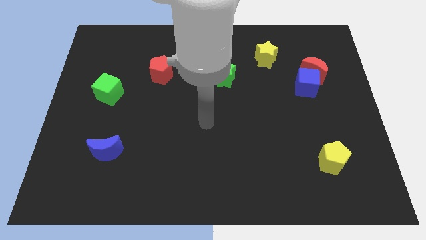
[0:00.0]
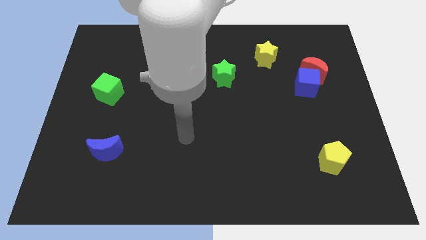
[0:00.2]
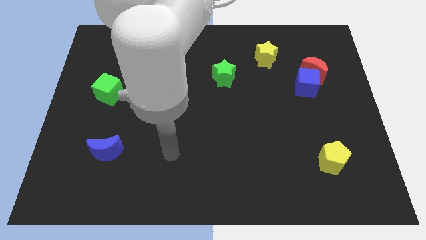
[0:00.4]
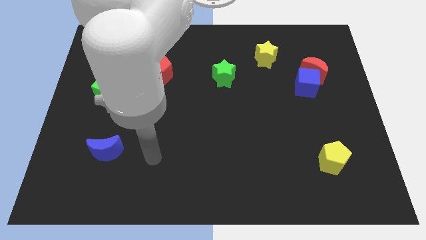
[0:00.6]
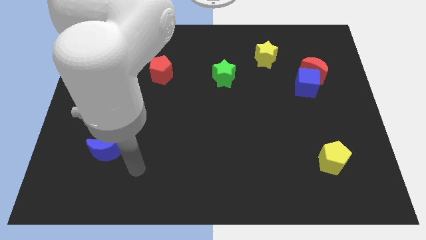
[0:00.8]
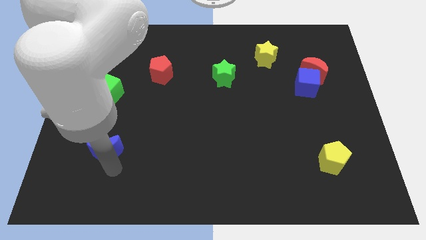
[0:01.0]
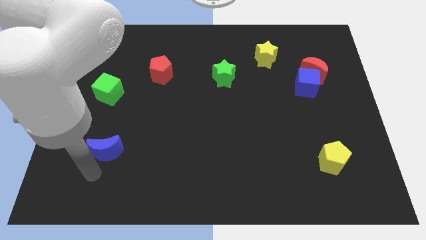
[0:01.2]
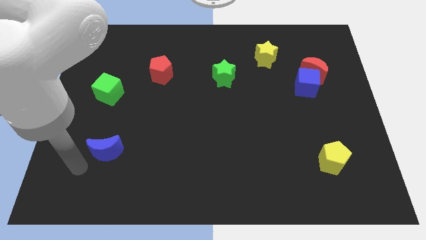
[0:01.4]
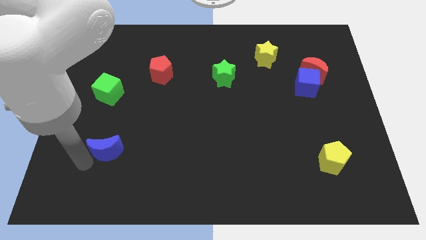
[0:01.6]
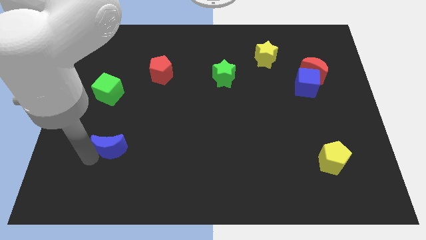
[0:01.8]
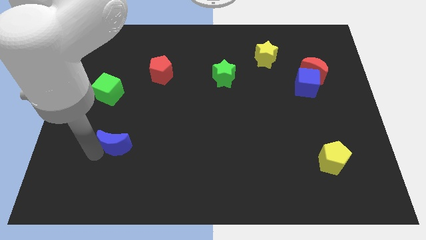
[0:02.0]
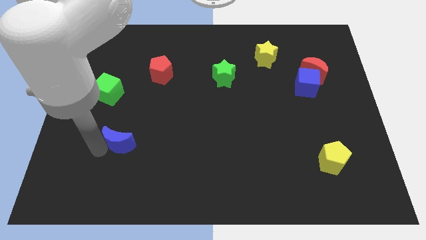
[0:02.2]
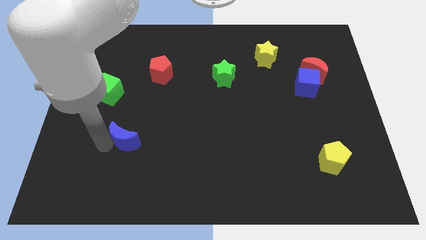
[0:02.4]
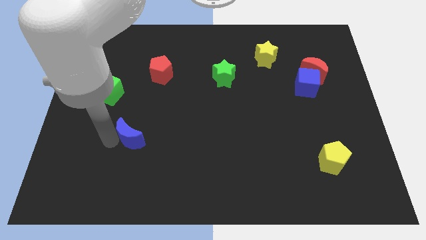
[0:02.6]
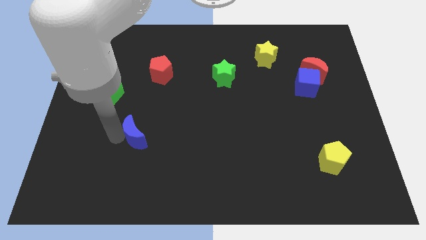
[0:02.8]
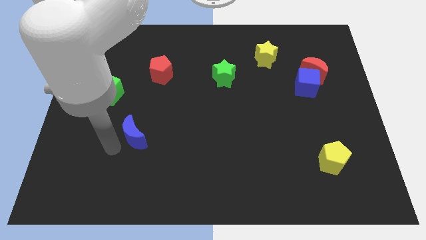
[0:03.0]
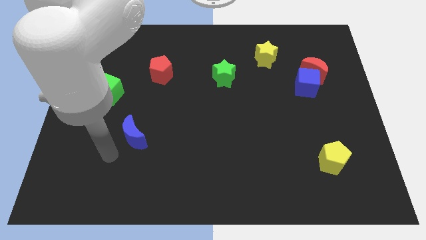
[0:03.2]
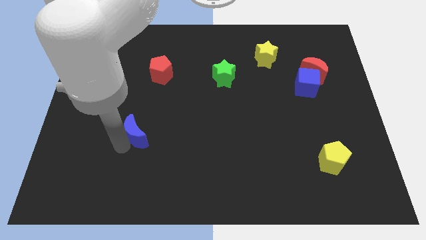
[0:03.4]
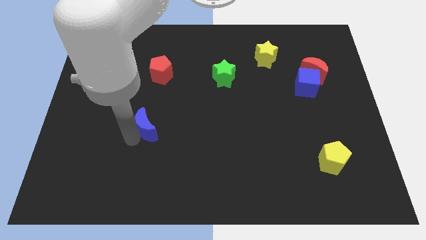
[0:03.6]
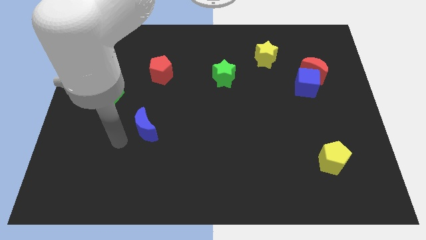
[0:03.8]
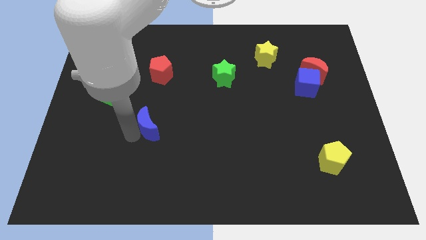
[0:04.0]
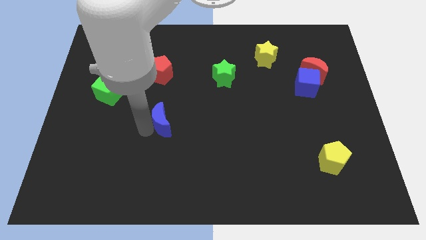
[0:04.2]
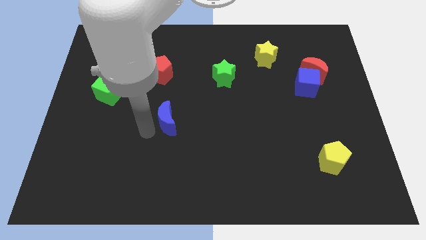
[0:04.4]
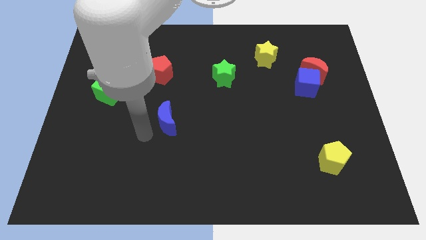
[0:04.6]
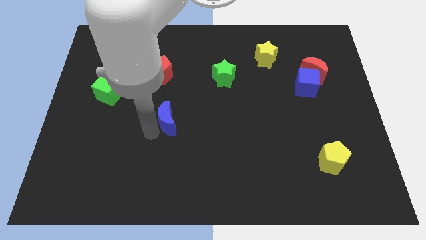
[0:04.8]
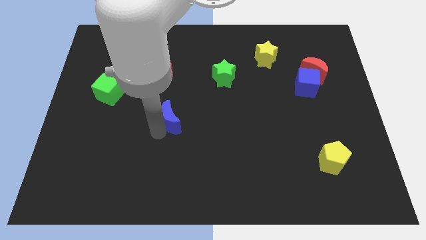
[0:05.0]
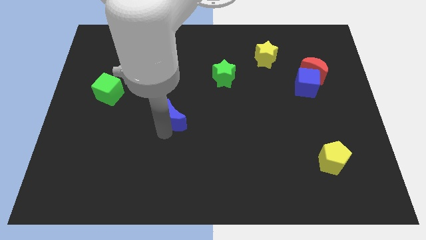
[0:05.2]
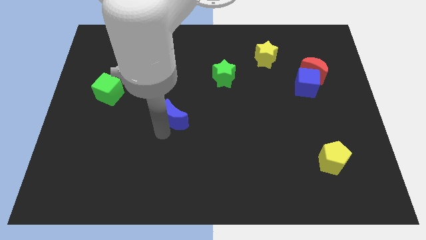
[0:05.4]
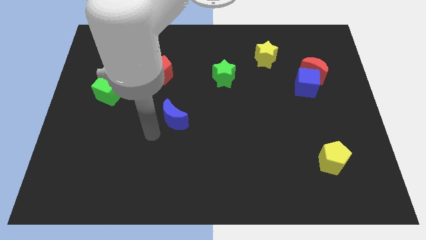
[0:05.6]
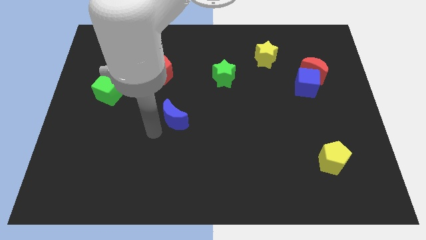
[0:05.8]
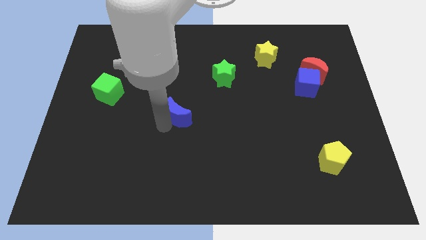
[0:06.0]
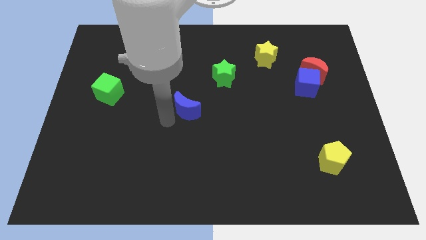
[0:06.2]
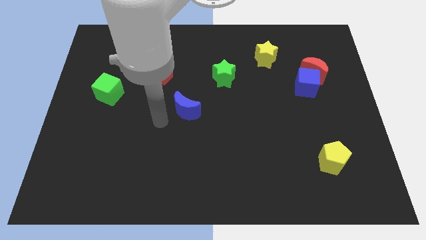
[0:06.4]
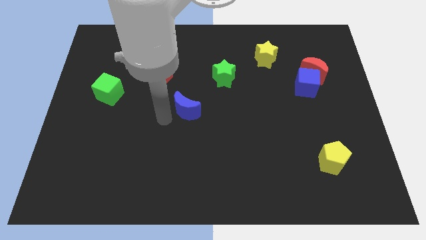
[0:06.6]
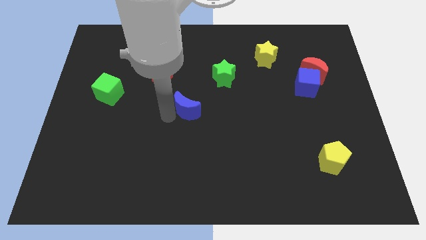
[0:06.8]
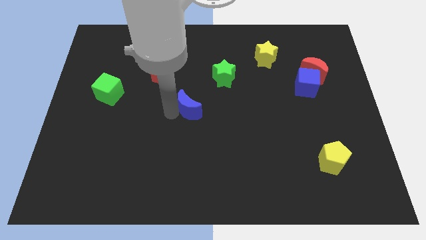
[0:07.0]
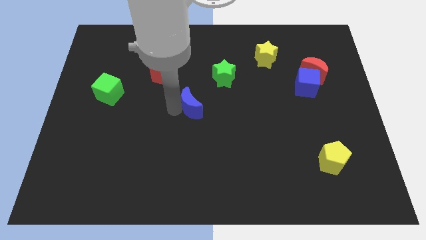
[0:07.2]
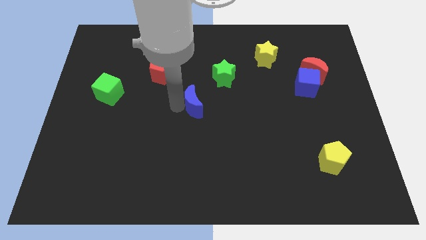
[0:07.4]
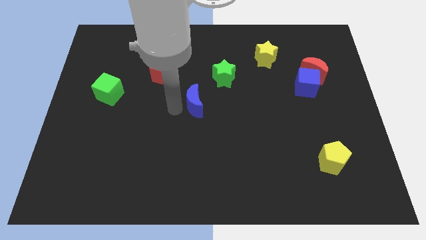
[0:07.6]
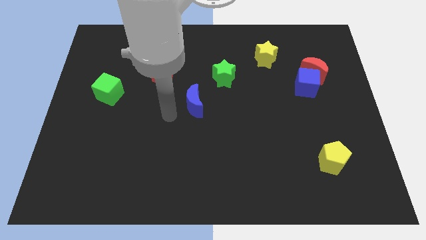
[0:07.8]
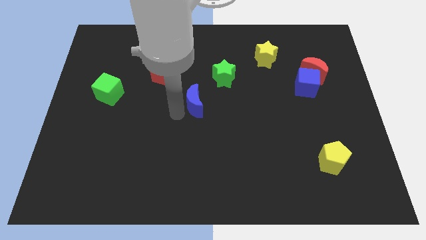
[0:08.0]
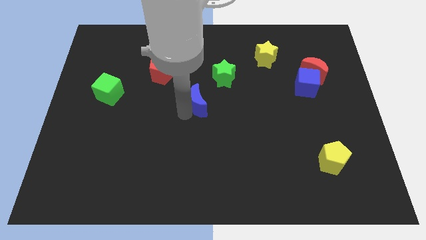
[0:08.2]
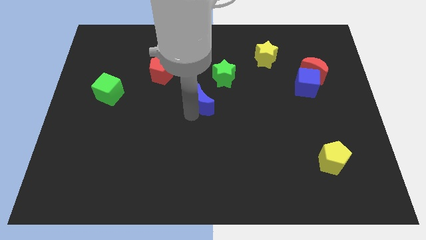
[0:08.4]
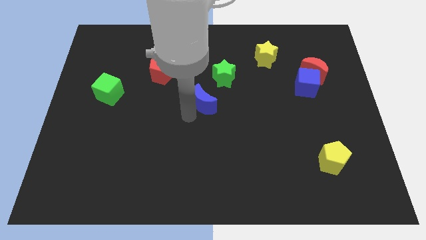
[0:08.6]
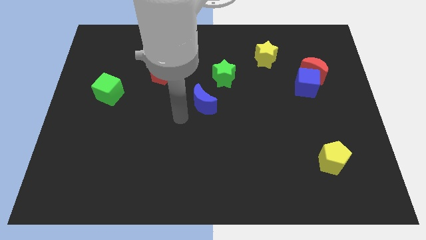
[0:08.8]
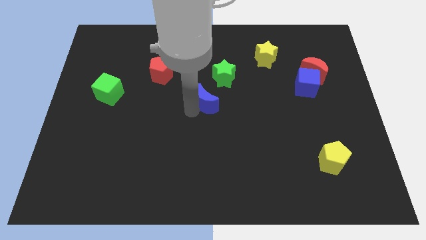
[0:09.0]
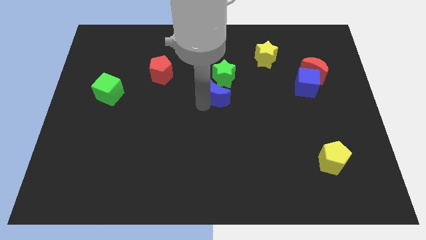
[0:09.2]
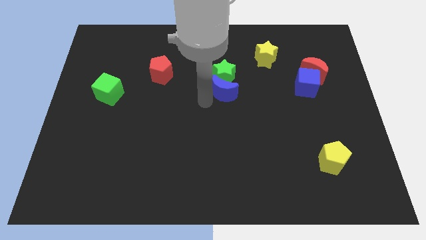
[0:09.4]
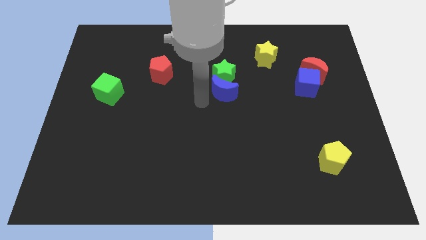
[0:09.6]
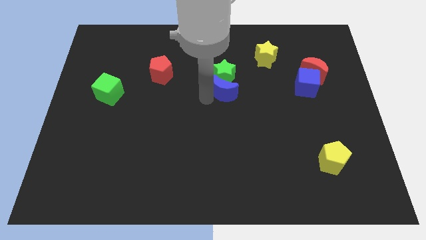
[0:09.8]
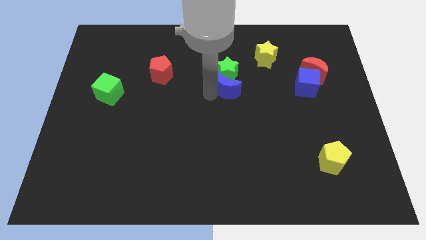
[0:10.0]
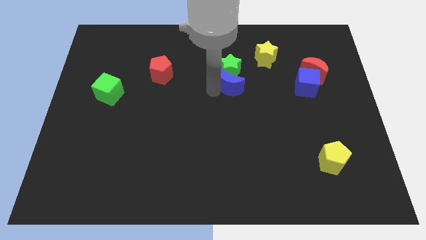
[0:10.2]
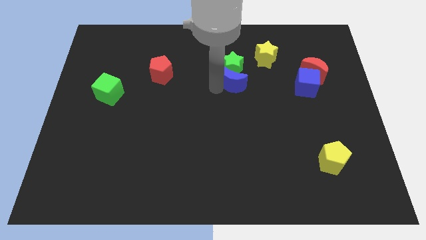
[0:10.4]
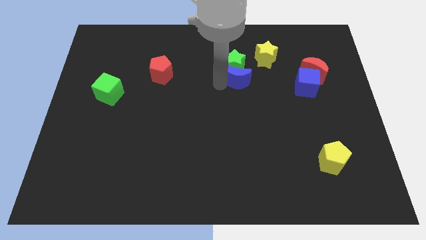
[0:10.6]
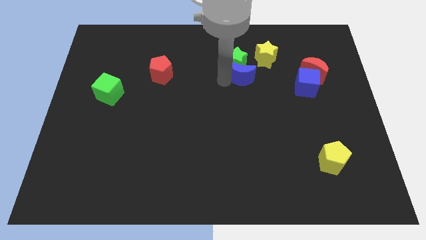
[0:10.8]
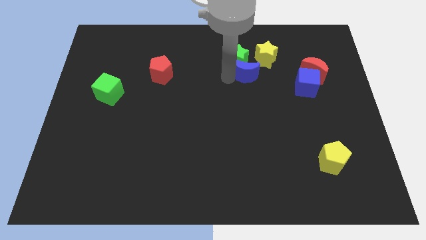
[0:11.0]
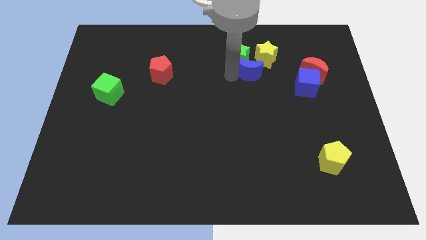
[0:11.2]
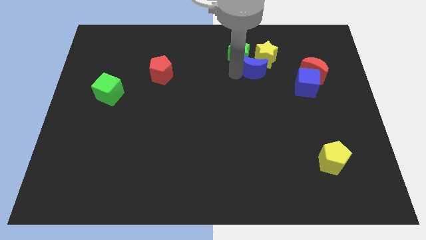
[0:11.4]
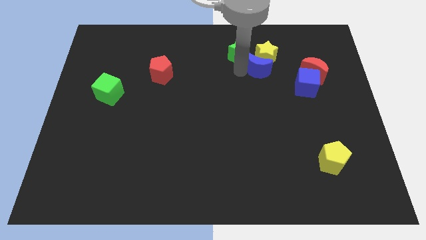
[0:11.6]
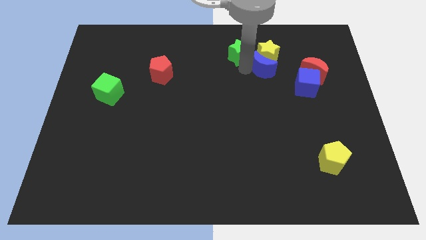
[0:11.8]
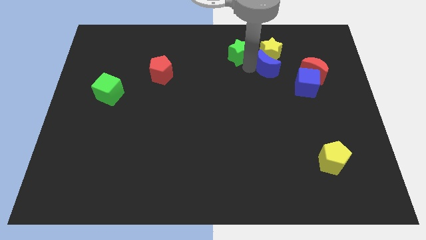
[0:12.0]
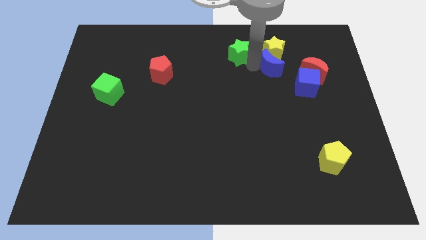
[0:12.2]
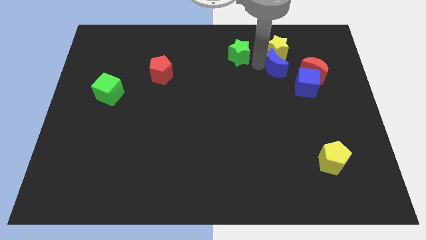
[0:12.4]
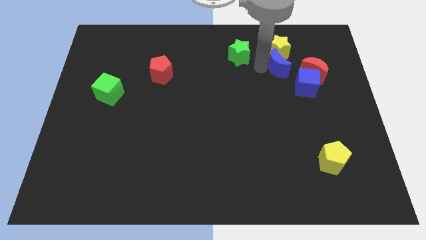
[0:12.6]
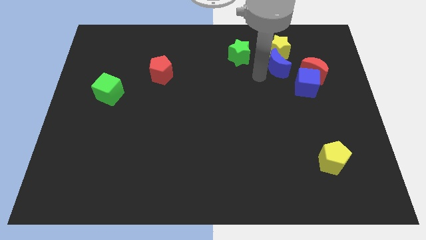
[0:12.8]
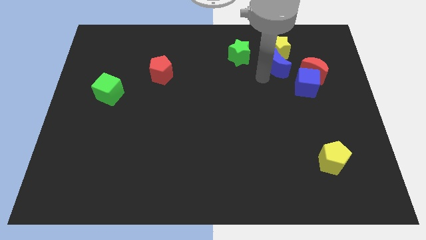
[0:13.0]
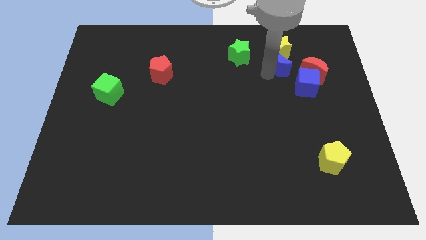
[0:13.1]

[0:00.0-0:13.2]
put the blue moon to the top left side of the red moon
